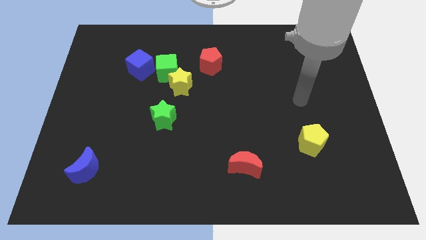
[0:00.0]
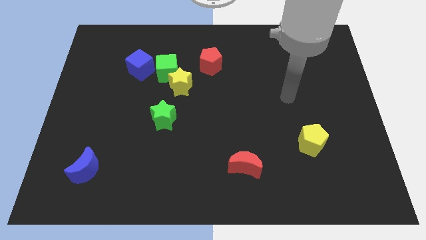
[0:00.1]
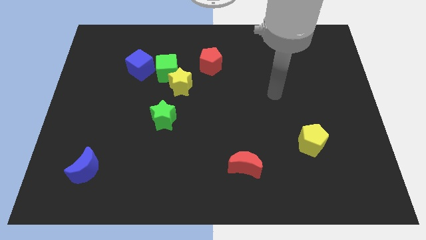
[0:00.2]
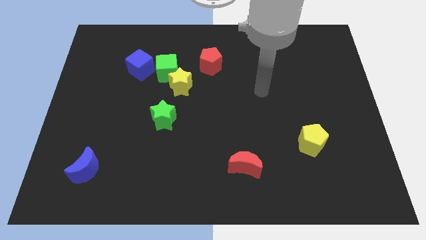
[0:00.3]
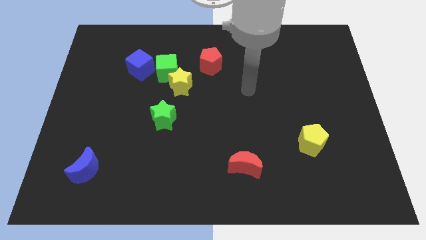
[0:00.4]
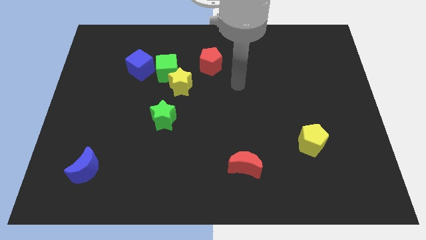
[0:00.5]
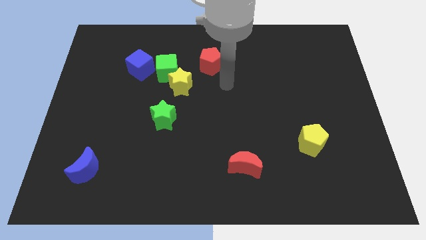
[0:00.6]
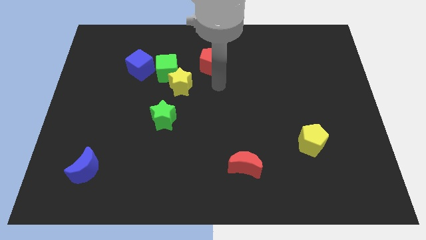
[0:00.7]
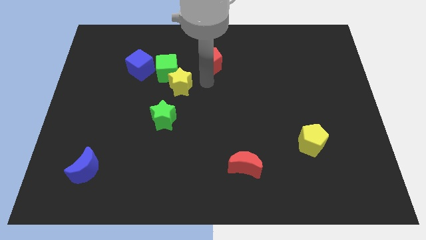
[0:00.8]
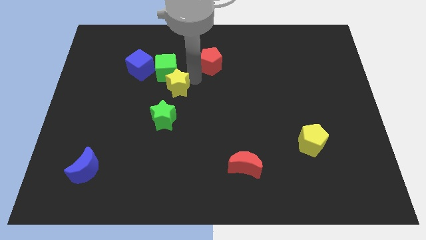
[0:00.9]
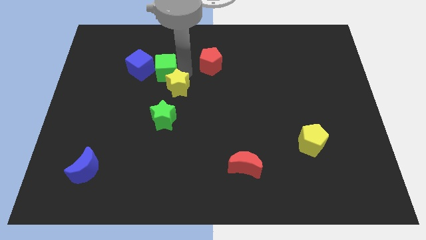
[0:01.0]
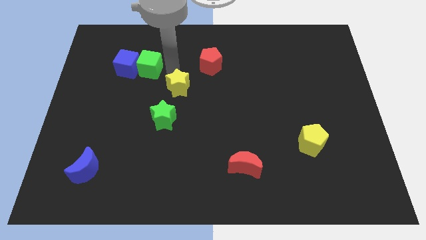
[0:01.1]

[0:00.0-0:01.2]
move the yellow star away from the green cube

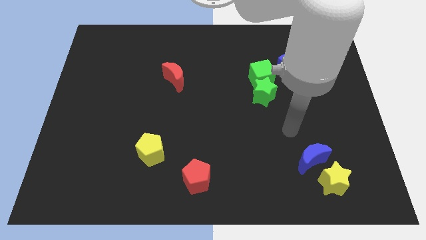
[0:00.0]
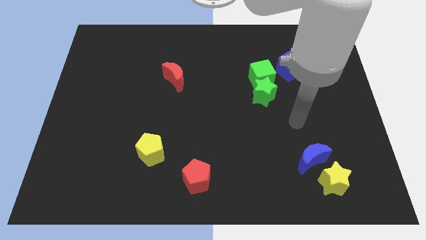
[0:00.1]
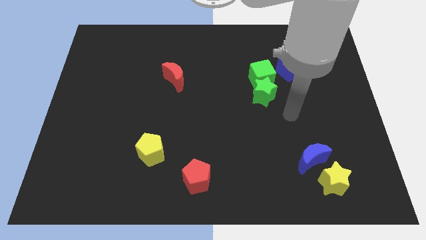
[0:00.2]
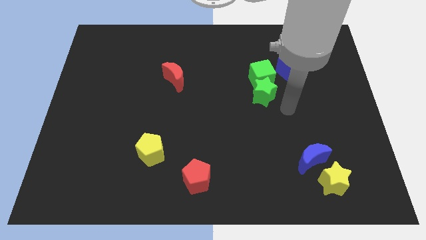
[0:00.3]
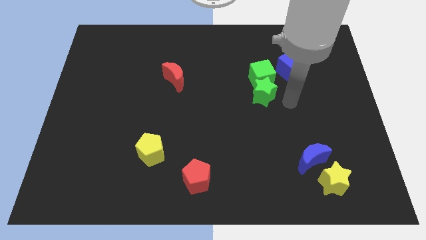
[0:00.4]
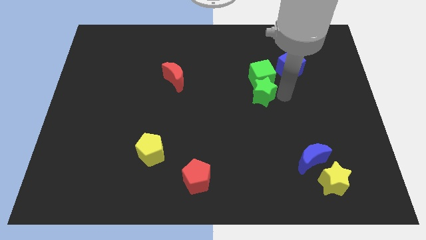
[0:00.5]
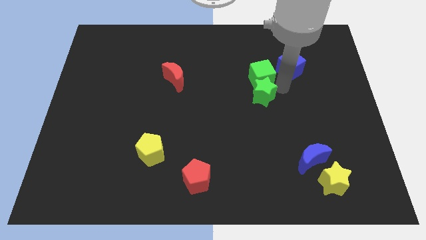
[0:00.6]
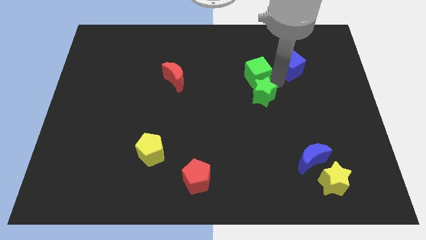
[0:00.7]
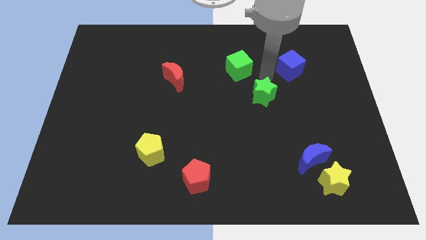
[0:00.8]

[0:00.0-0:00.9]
move the green star away from the green cube

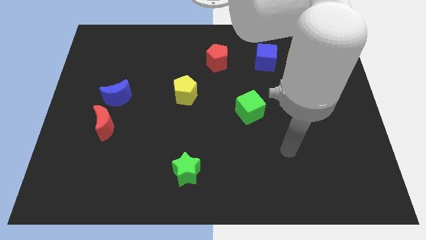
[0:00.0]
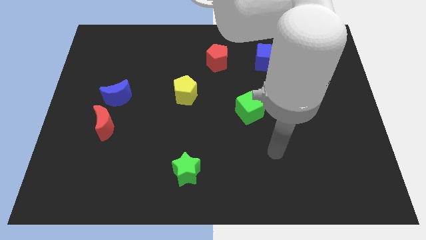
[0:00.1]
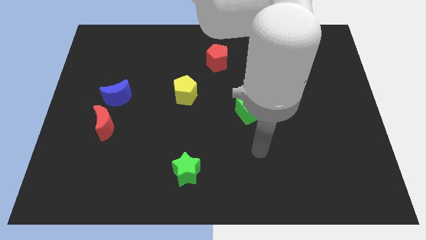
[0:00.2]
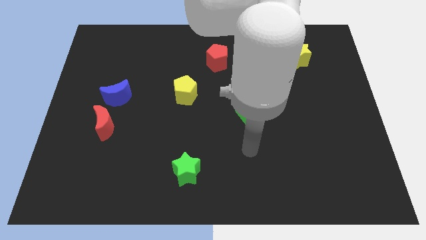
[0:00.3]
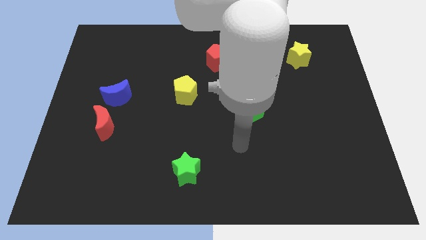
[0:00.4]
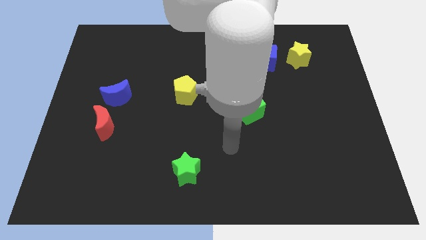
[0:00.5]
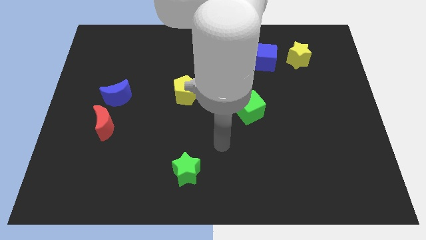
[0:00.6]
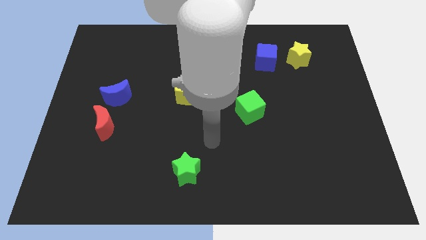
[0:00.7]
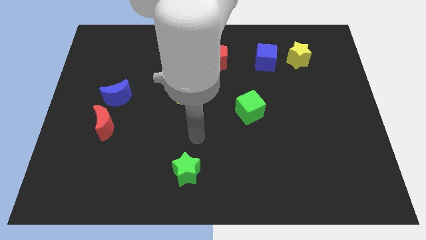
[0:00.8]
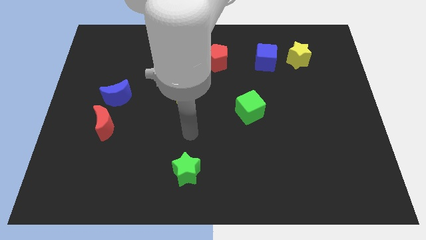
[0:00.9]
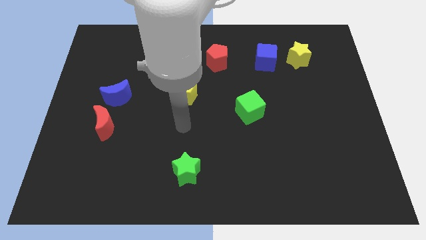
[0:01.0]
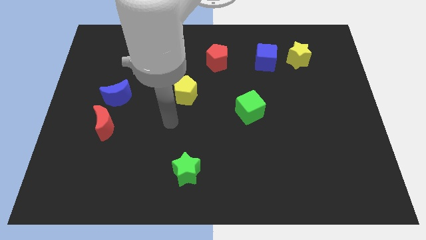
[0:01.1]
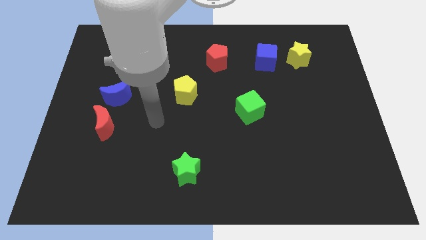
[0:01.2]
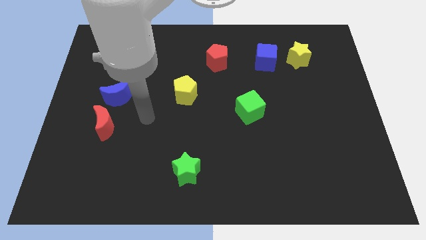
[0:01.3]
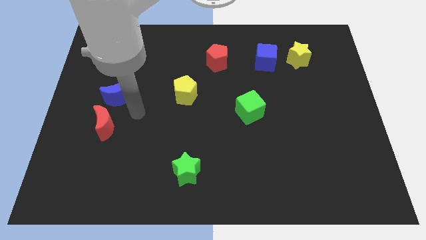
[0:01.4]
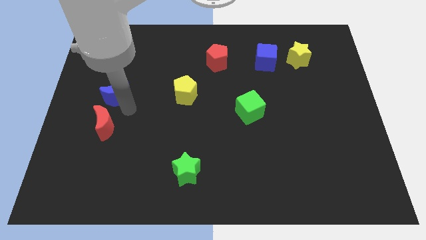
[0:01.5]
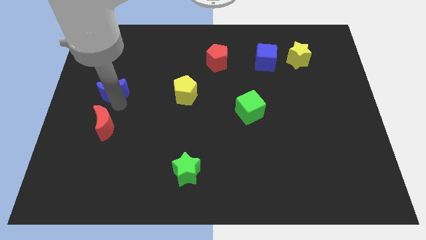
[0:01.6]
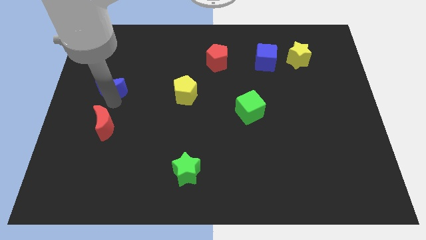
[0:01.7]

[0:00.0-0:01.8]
separate the red moon from the blue moon

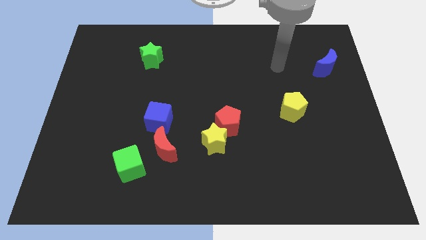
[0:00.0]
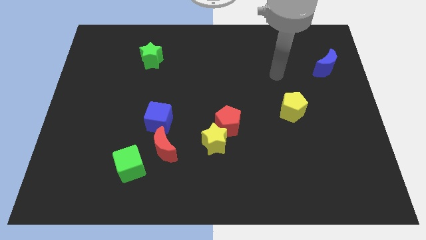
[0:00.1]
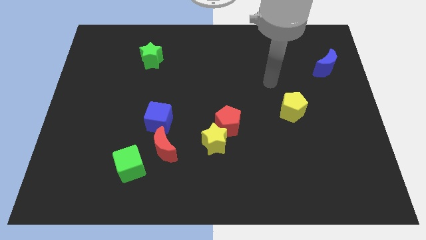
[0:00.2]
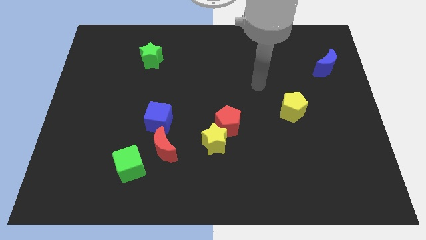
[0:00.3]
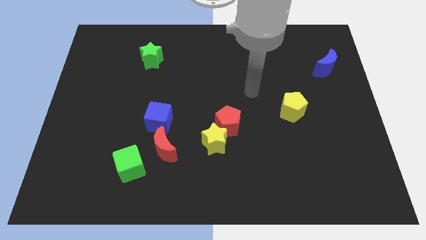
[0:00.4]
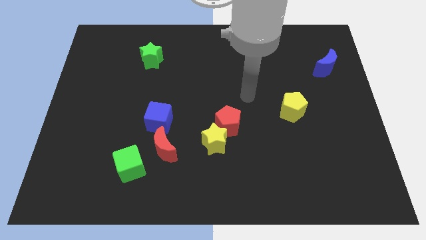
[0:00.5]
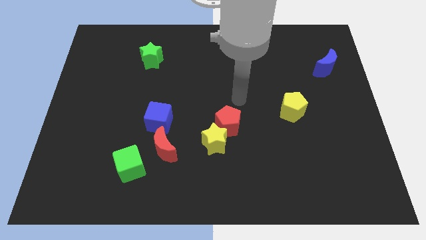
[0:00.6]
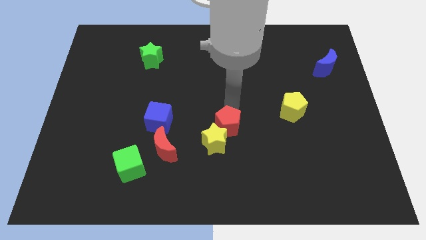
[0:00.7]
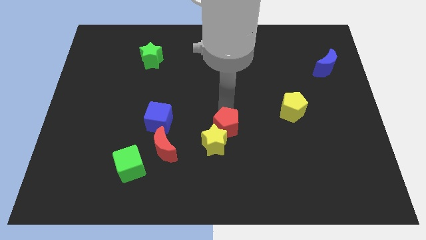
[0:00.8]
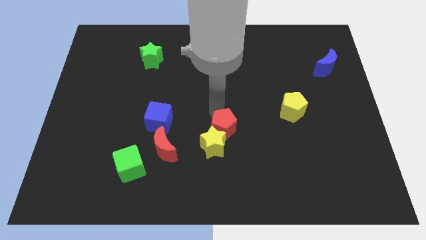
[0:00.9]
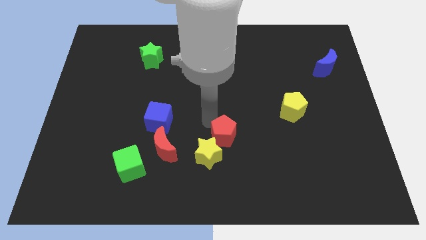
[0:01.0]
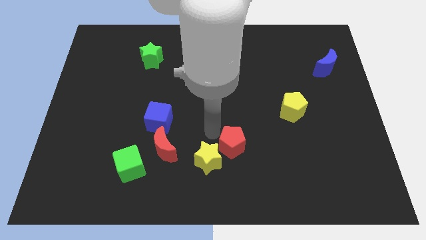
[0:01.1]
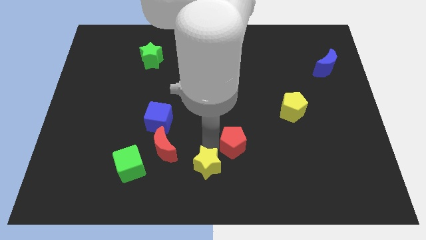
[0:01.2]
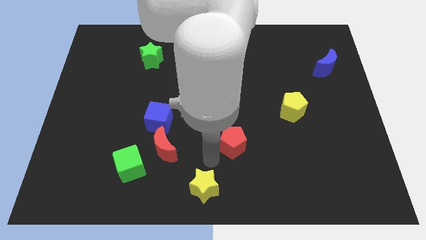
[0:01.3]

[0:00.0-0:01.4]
pull the red pentagon apart from the yellow star

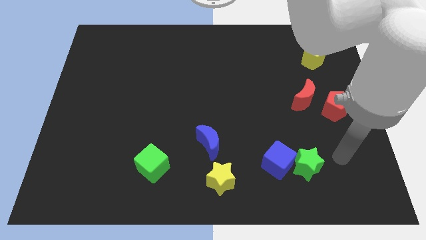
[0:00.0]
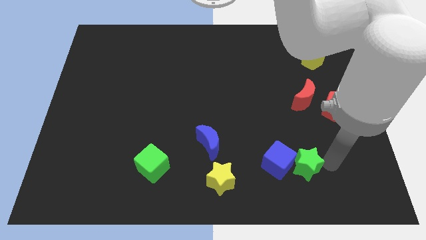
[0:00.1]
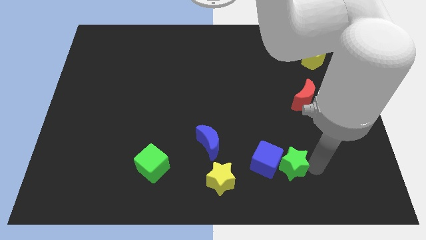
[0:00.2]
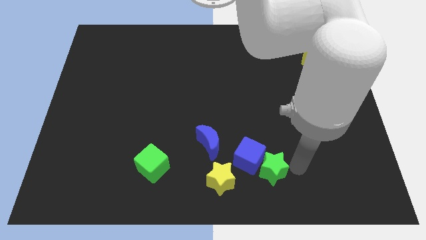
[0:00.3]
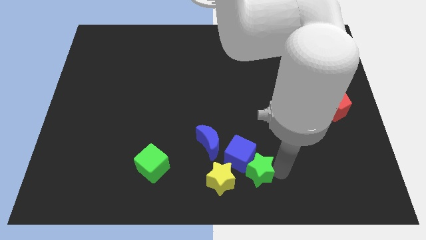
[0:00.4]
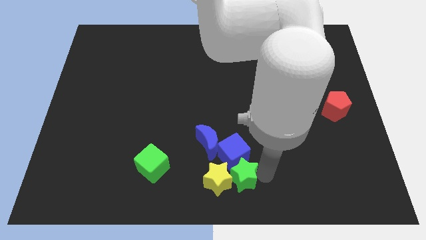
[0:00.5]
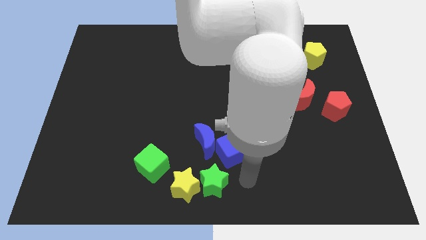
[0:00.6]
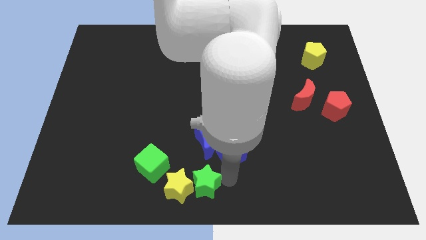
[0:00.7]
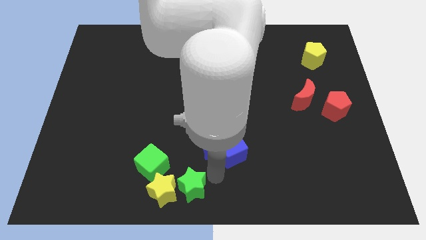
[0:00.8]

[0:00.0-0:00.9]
move the blue cube away from the green star

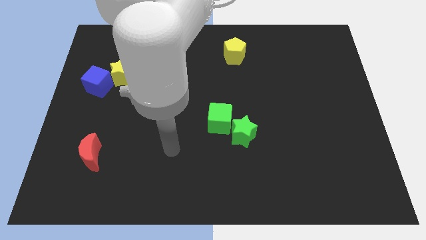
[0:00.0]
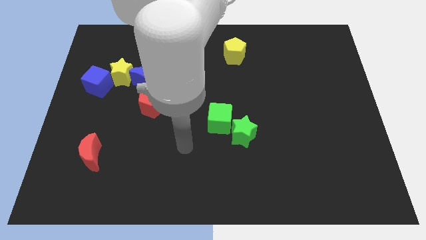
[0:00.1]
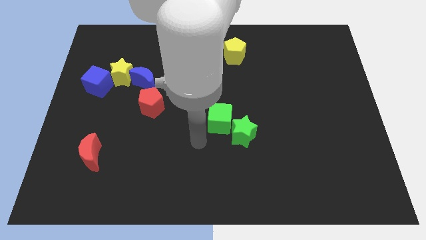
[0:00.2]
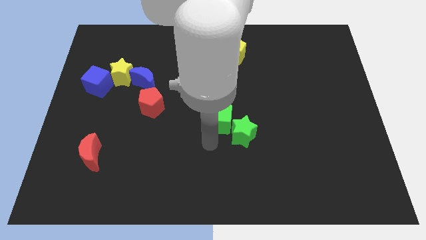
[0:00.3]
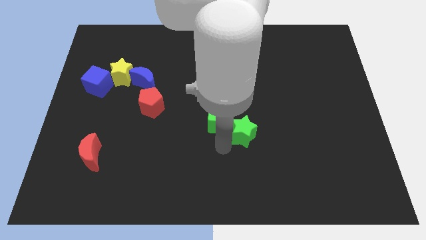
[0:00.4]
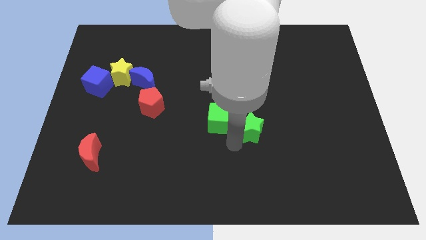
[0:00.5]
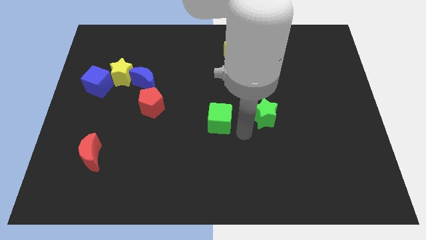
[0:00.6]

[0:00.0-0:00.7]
pull the green cube apart from the green star

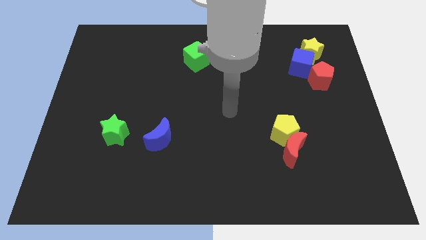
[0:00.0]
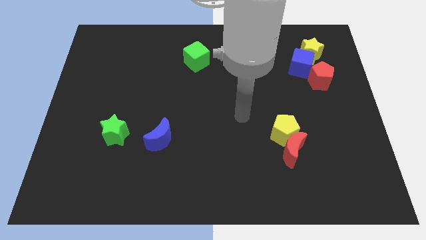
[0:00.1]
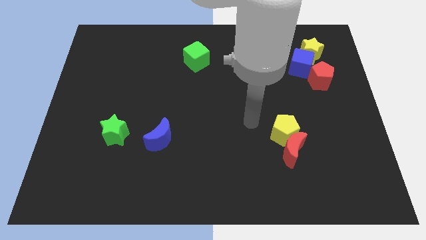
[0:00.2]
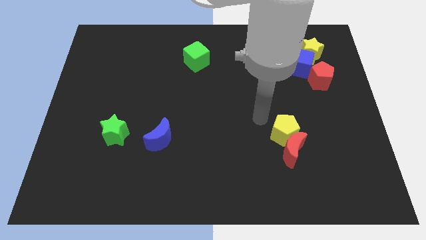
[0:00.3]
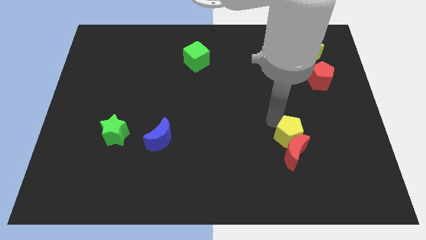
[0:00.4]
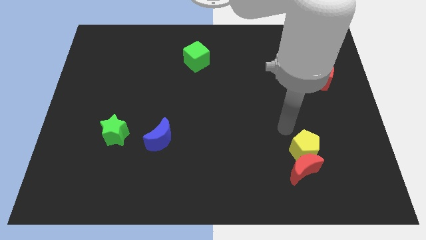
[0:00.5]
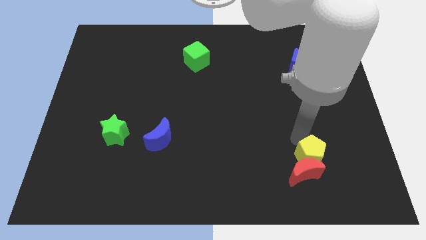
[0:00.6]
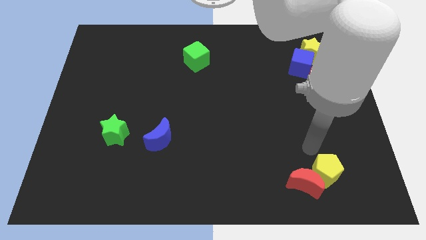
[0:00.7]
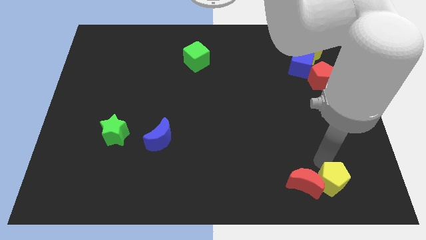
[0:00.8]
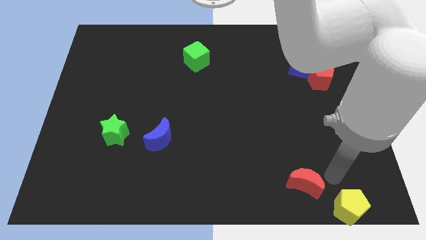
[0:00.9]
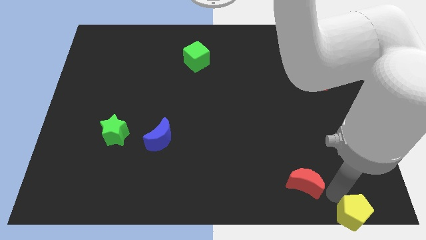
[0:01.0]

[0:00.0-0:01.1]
move the red moon away from the yellow pentagon

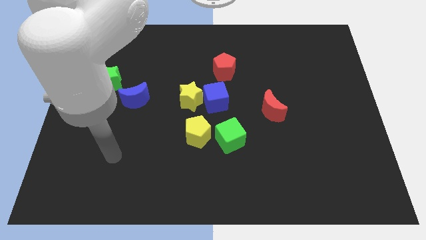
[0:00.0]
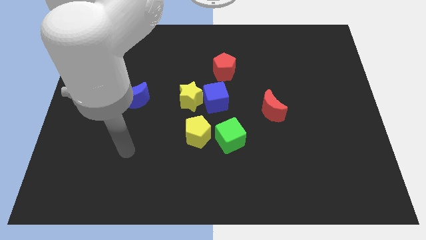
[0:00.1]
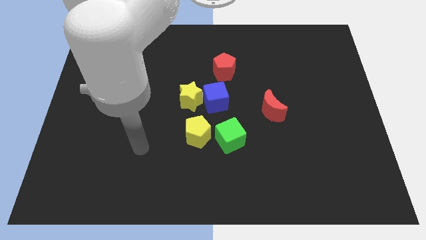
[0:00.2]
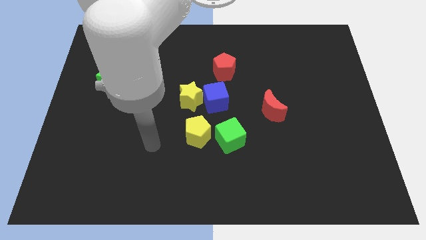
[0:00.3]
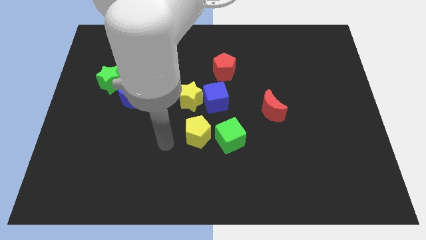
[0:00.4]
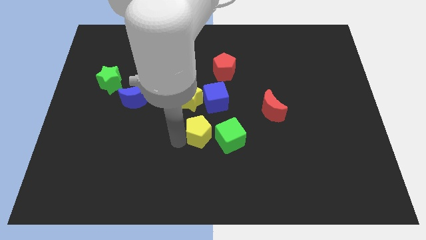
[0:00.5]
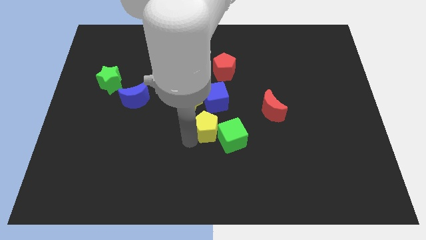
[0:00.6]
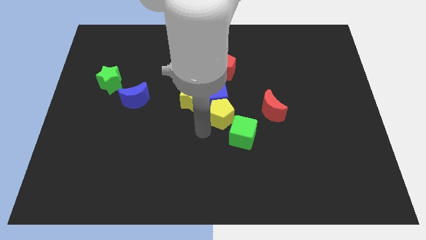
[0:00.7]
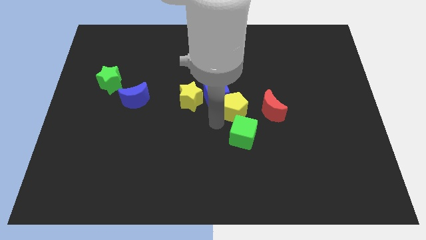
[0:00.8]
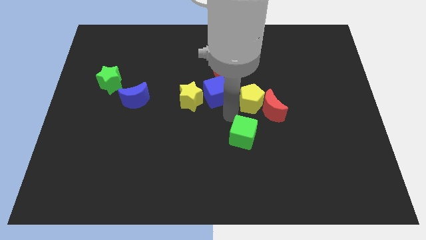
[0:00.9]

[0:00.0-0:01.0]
move the green cube away from the yellow pentagon

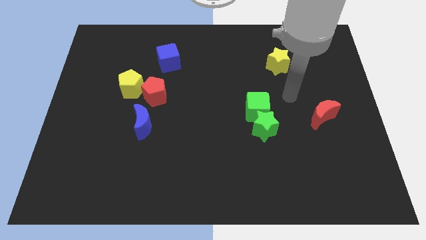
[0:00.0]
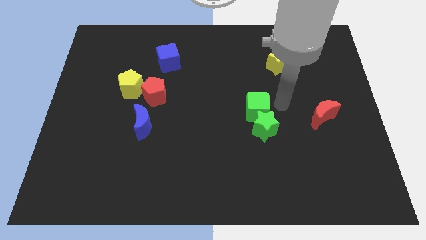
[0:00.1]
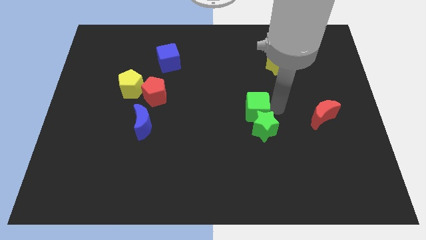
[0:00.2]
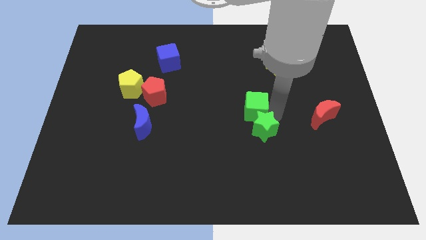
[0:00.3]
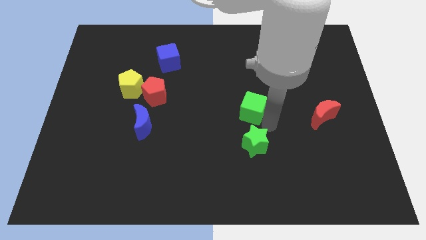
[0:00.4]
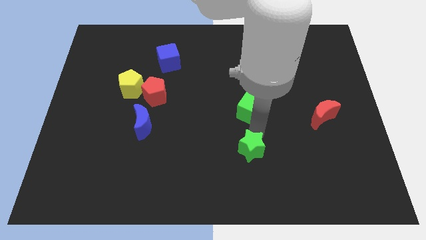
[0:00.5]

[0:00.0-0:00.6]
move the green cube away from the green star
